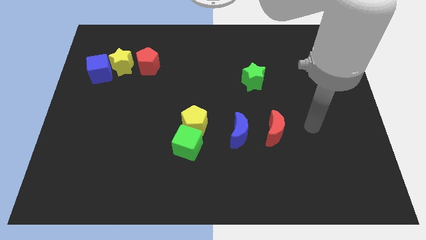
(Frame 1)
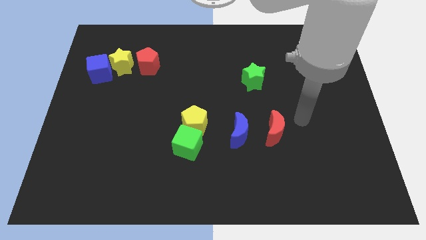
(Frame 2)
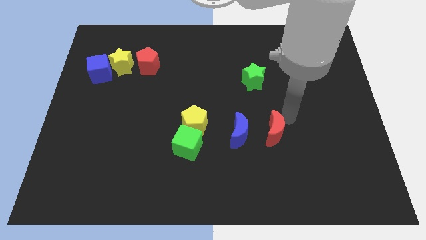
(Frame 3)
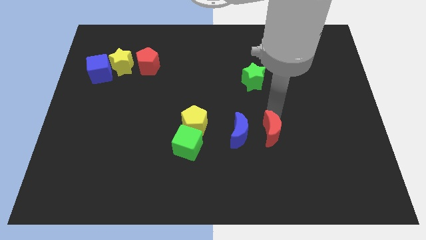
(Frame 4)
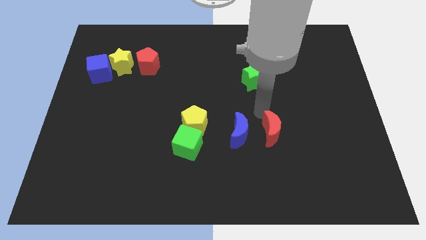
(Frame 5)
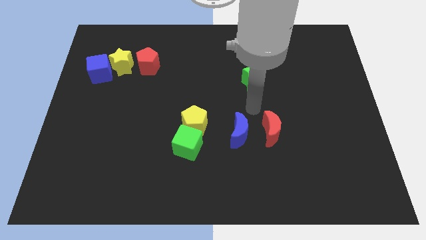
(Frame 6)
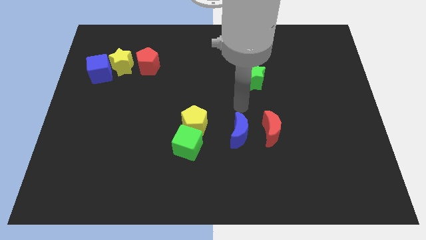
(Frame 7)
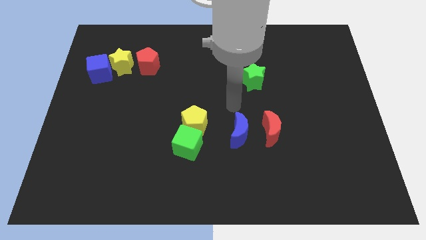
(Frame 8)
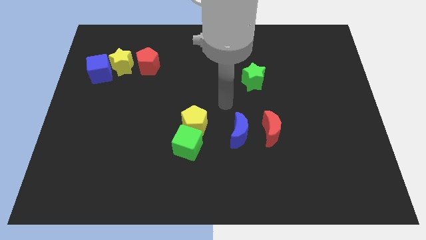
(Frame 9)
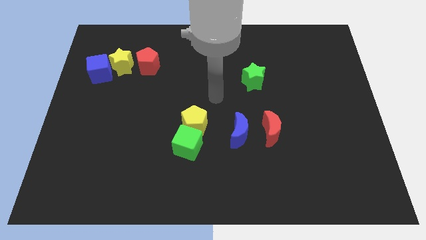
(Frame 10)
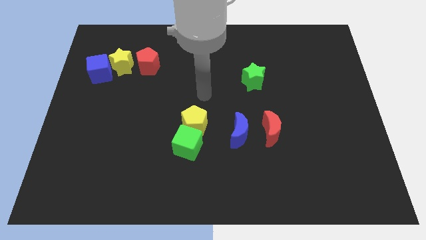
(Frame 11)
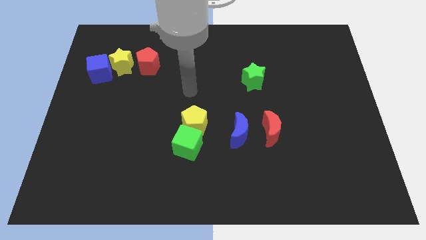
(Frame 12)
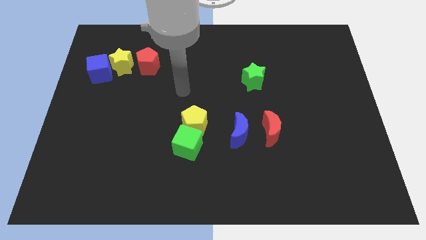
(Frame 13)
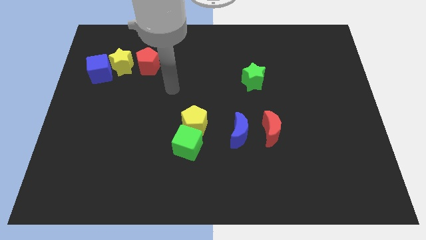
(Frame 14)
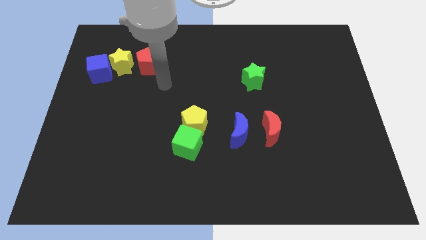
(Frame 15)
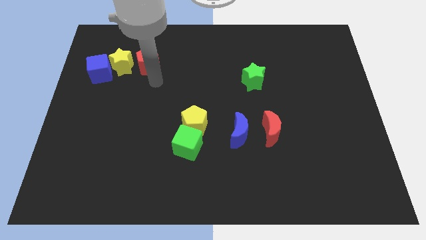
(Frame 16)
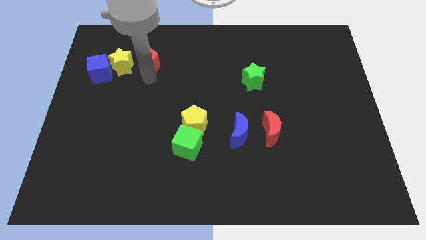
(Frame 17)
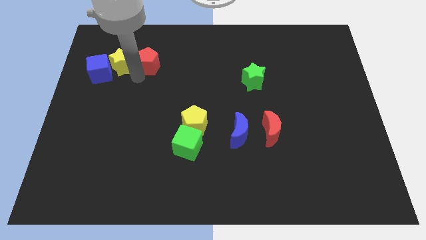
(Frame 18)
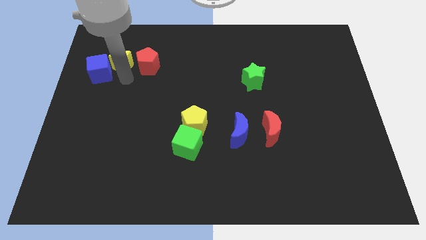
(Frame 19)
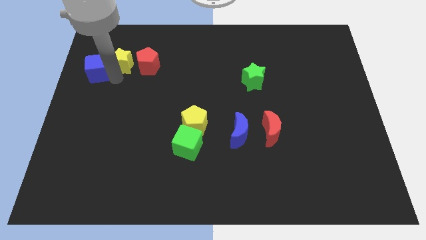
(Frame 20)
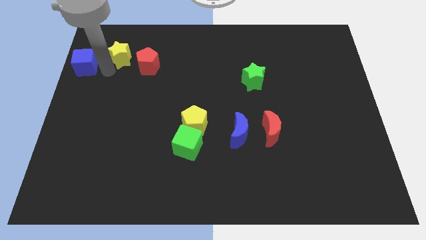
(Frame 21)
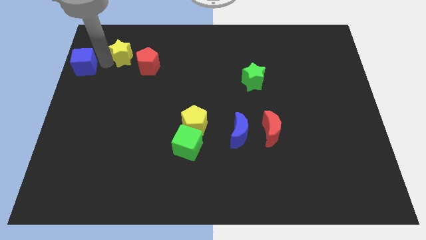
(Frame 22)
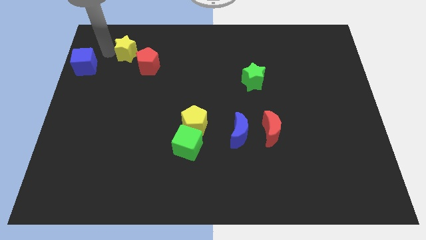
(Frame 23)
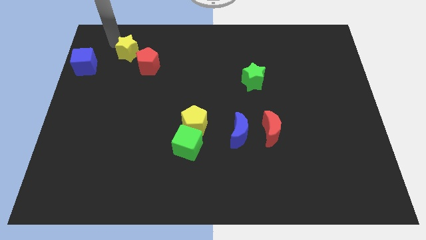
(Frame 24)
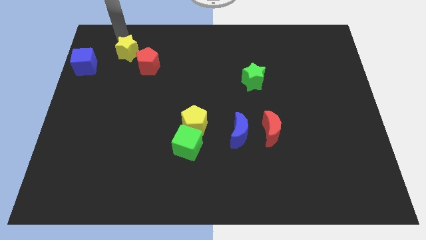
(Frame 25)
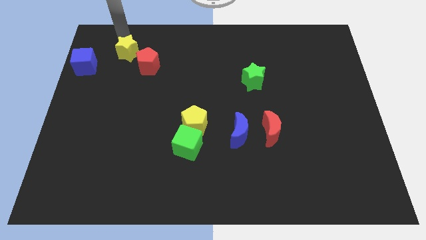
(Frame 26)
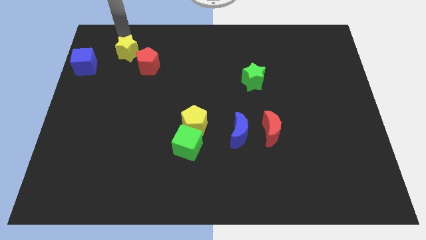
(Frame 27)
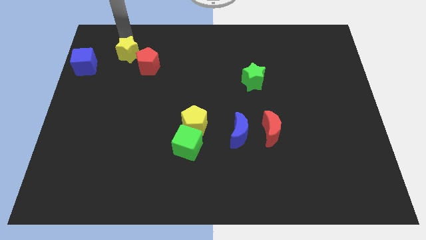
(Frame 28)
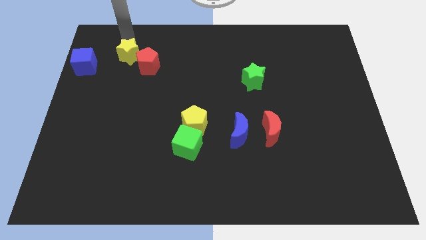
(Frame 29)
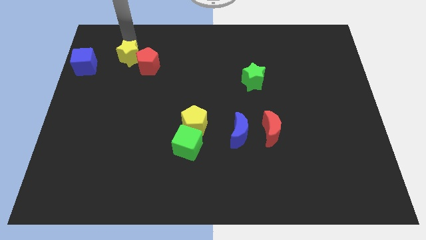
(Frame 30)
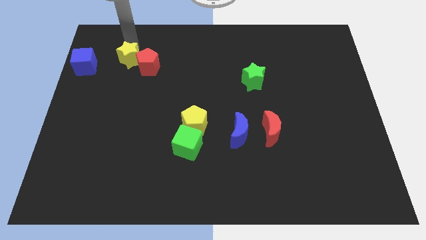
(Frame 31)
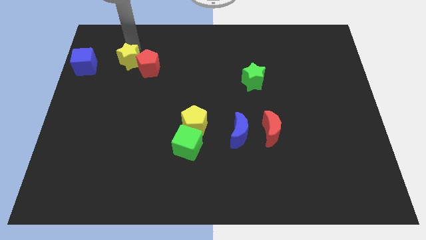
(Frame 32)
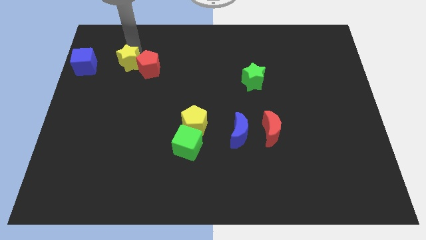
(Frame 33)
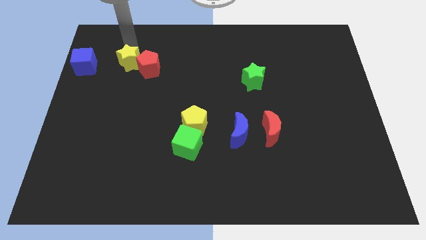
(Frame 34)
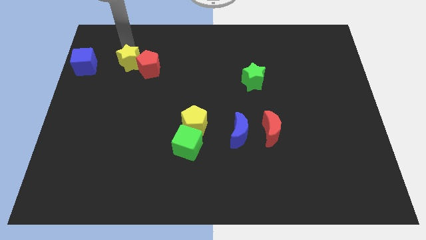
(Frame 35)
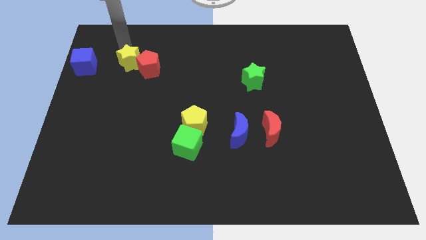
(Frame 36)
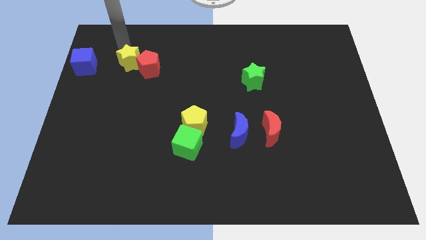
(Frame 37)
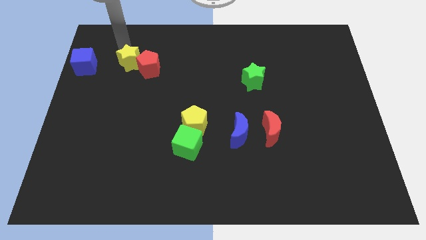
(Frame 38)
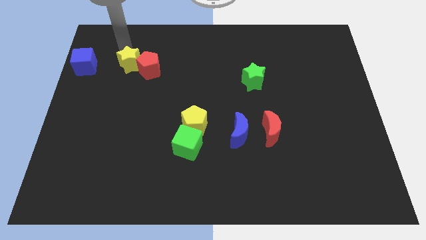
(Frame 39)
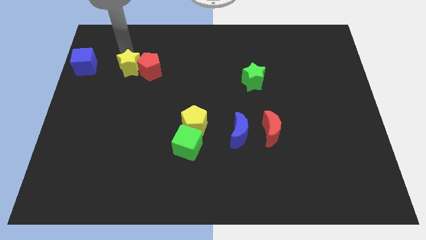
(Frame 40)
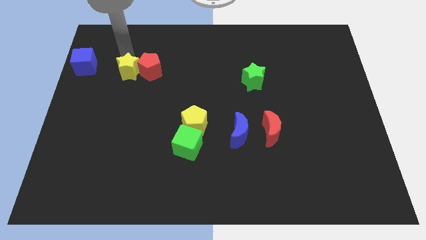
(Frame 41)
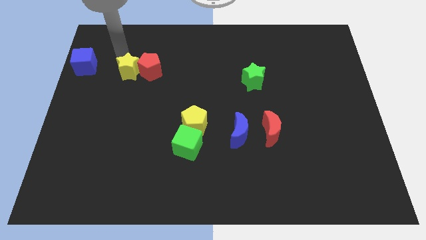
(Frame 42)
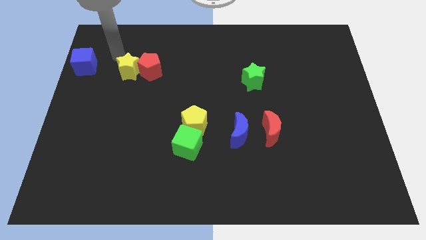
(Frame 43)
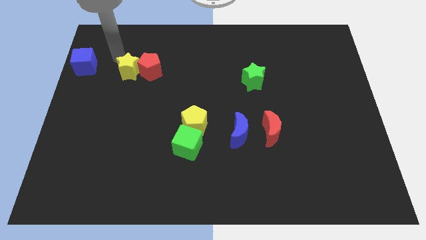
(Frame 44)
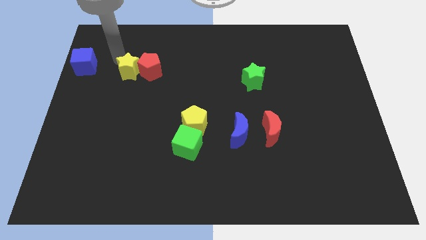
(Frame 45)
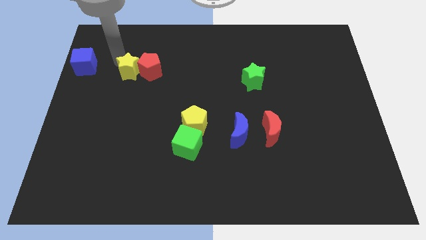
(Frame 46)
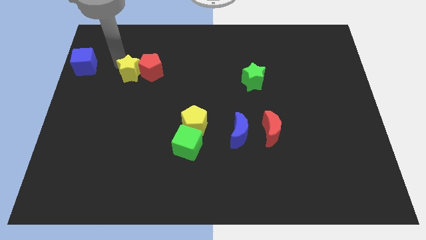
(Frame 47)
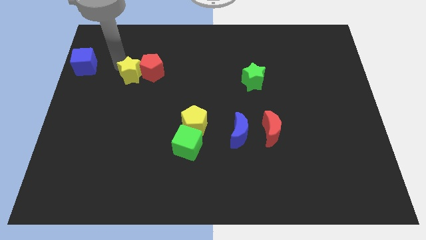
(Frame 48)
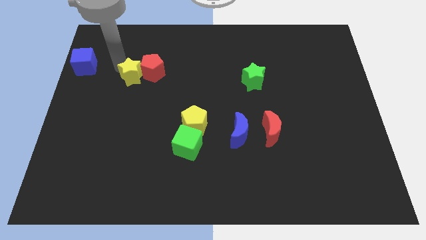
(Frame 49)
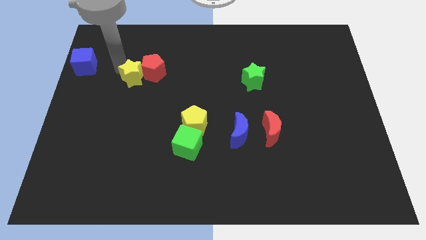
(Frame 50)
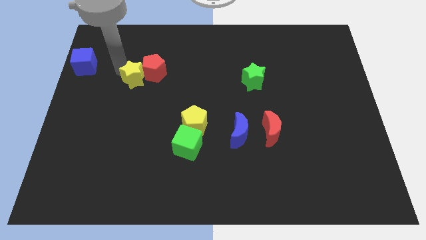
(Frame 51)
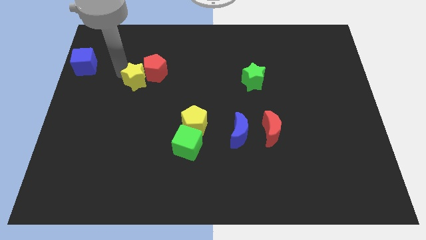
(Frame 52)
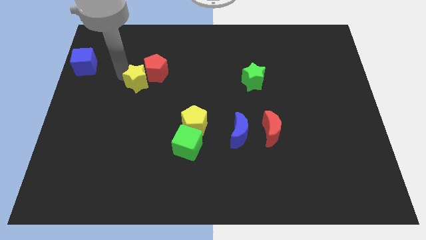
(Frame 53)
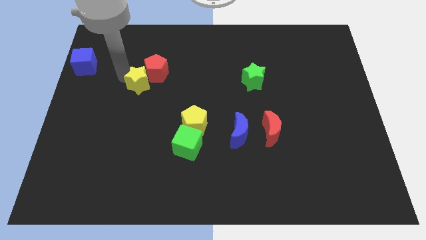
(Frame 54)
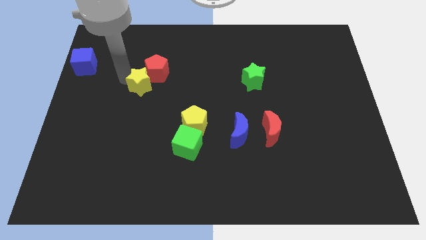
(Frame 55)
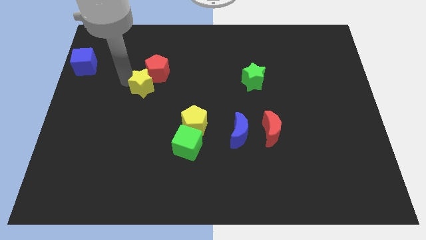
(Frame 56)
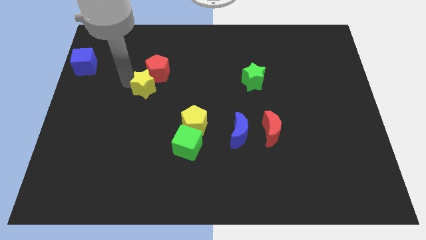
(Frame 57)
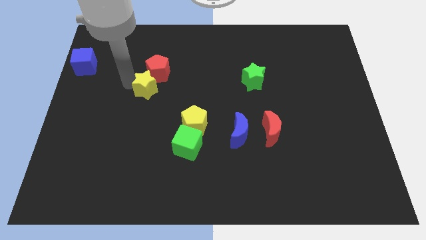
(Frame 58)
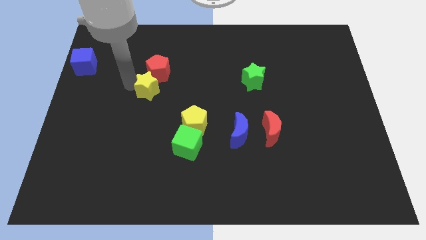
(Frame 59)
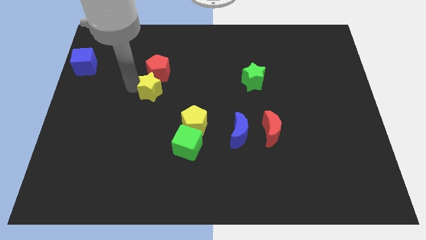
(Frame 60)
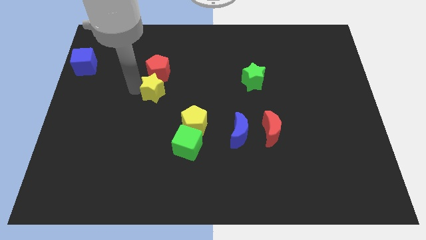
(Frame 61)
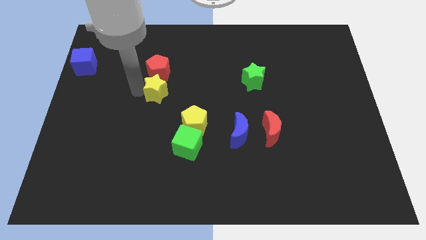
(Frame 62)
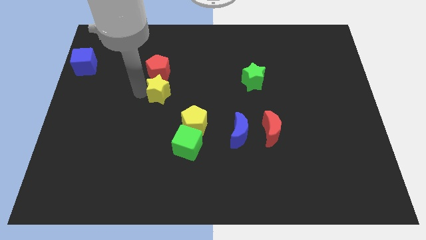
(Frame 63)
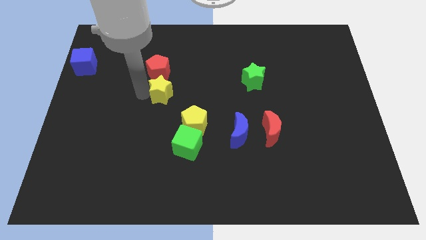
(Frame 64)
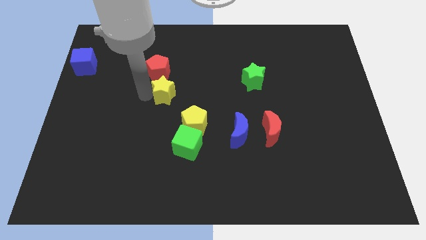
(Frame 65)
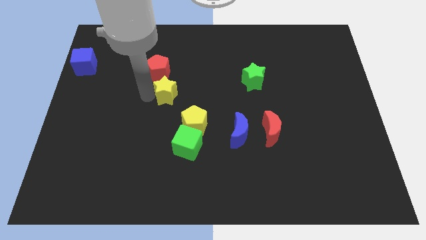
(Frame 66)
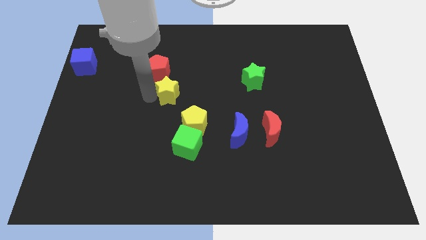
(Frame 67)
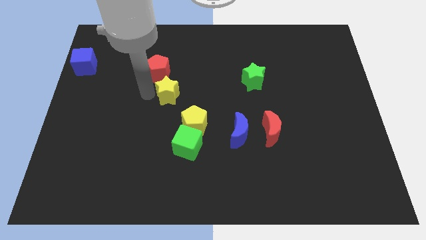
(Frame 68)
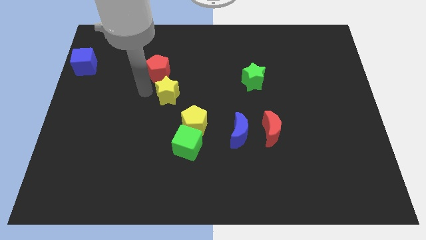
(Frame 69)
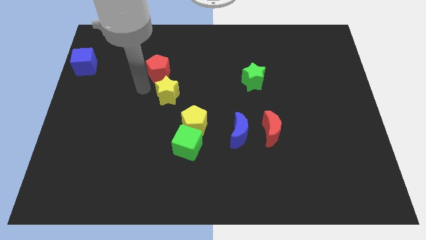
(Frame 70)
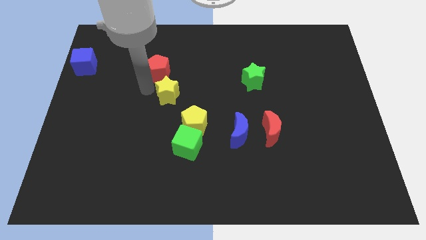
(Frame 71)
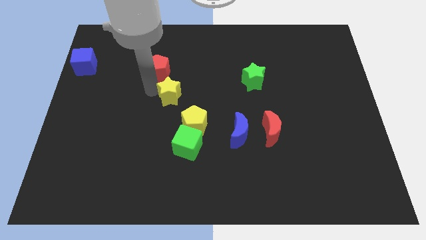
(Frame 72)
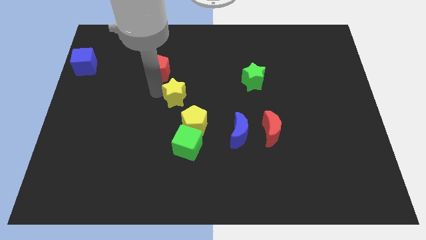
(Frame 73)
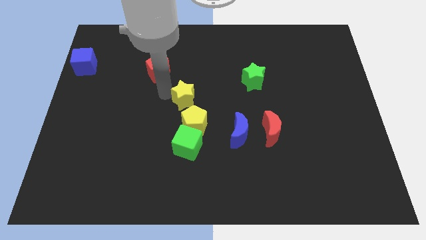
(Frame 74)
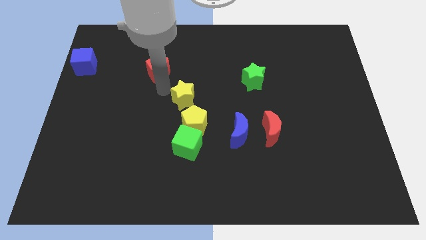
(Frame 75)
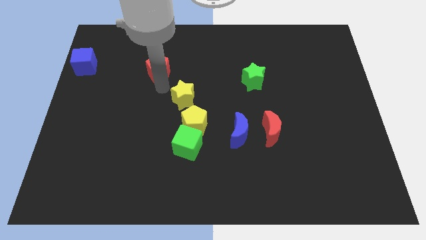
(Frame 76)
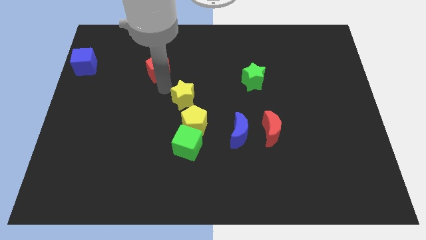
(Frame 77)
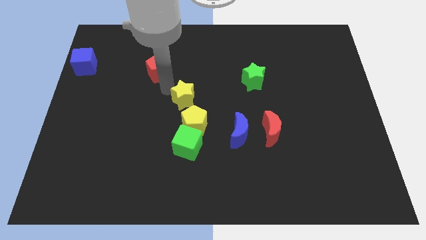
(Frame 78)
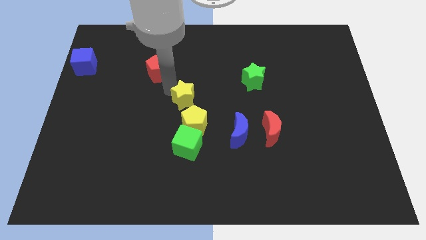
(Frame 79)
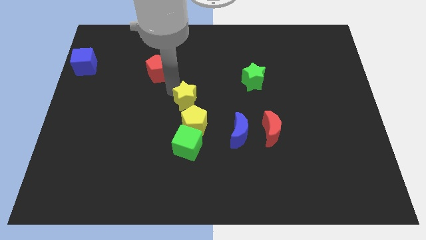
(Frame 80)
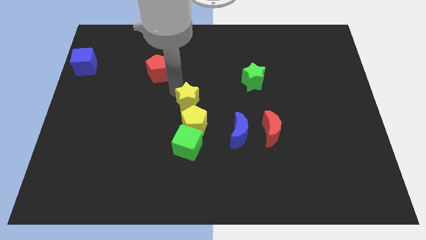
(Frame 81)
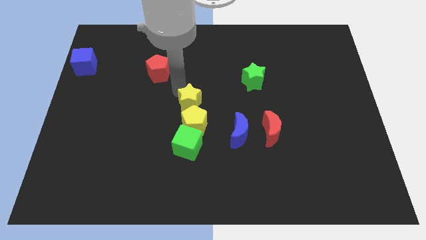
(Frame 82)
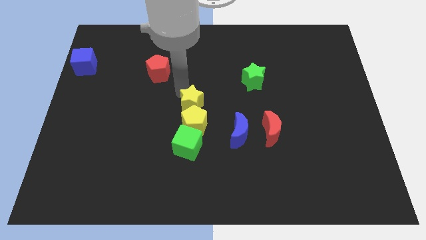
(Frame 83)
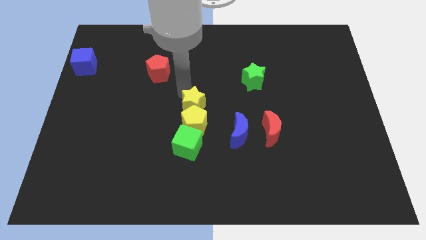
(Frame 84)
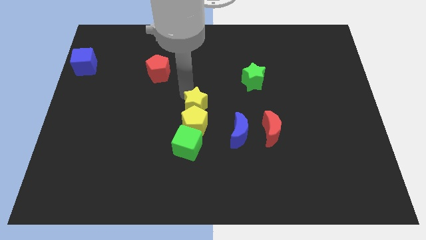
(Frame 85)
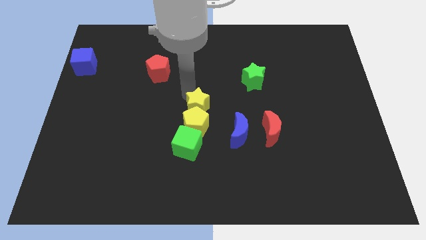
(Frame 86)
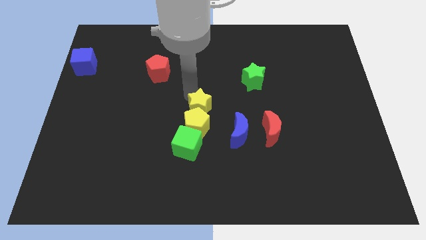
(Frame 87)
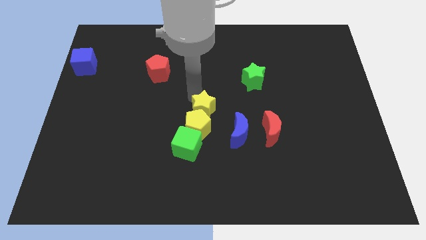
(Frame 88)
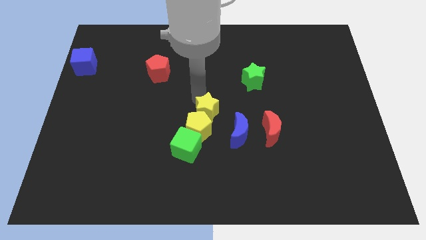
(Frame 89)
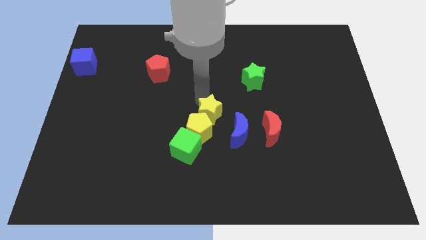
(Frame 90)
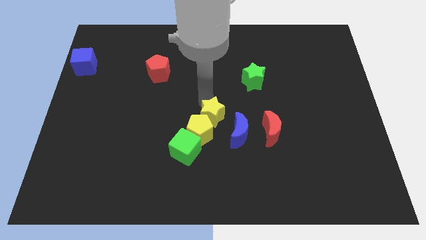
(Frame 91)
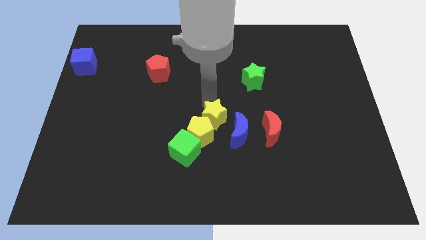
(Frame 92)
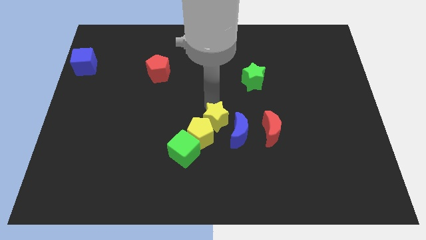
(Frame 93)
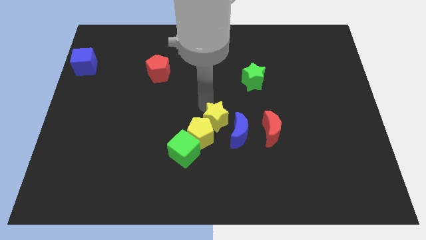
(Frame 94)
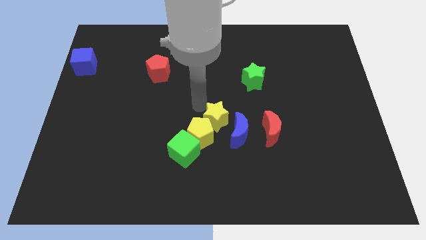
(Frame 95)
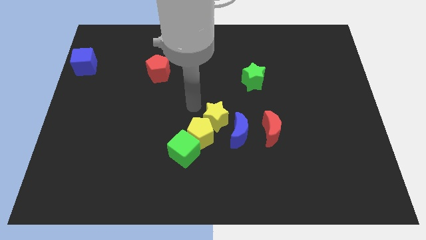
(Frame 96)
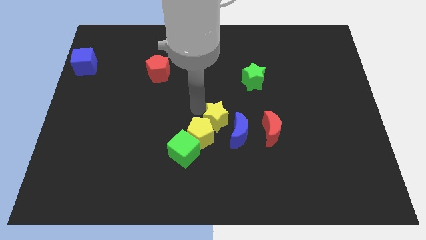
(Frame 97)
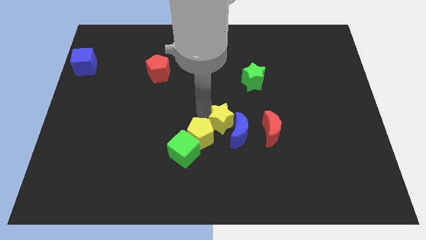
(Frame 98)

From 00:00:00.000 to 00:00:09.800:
push the yellow star to the blue moon
